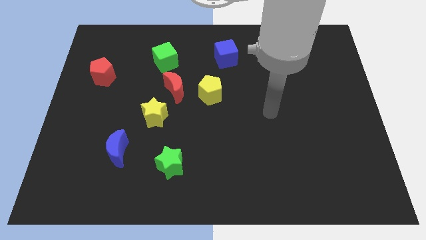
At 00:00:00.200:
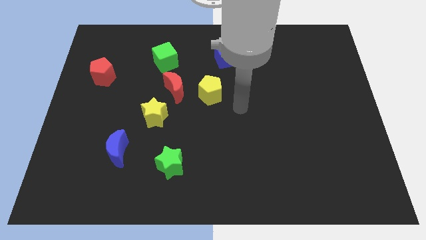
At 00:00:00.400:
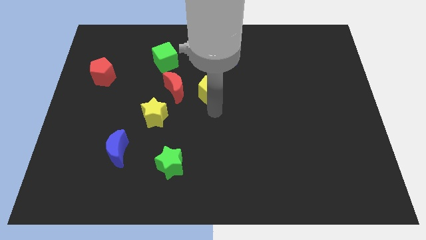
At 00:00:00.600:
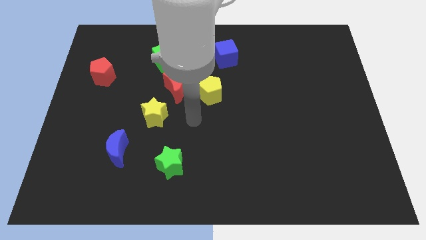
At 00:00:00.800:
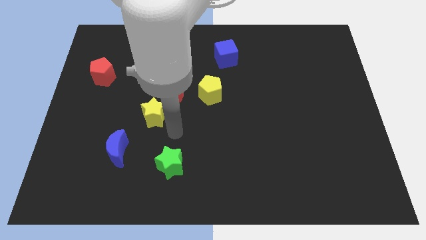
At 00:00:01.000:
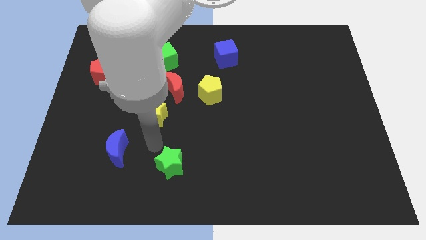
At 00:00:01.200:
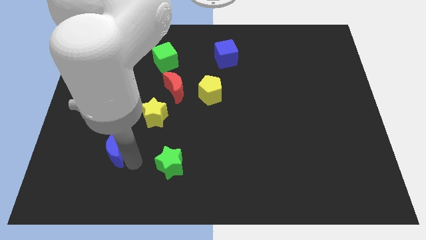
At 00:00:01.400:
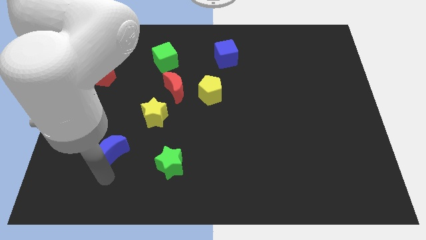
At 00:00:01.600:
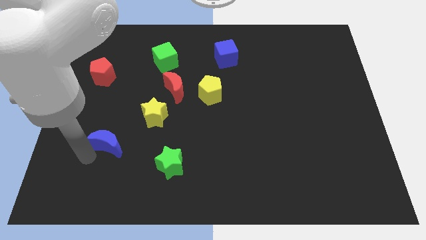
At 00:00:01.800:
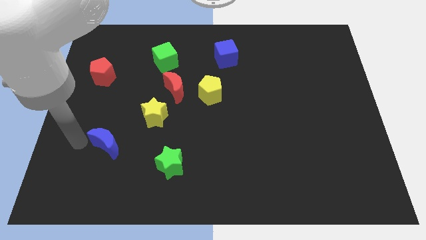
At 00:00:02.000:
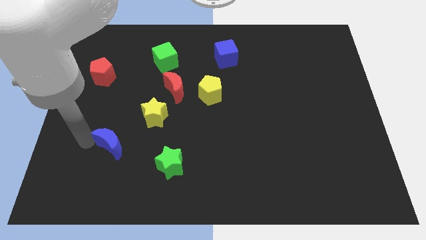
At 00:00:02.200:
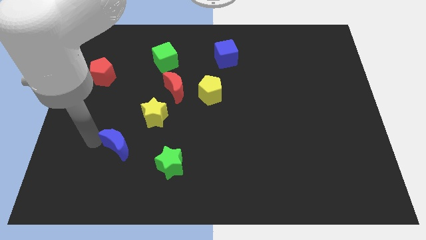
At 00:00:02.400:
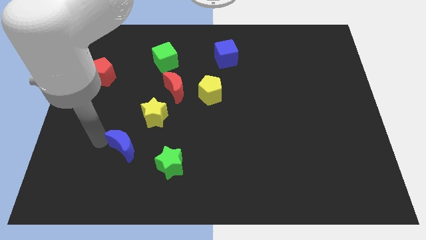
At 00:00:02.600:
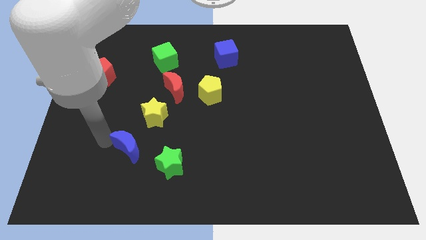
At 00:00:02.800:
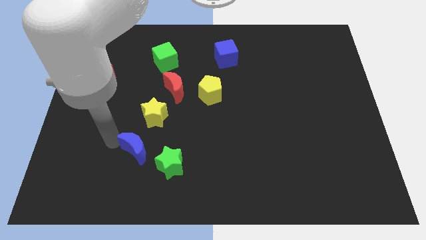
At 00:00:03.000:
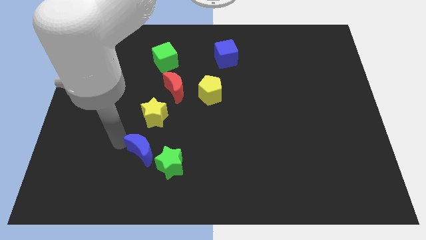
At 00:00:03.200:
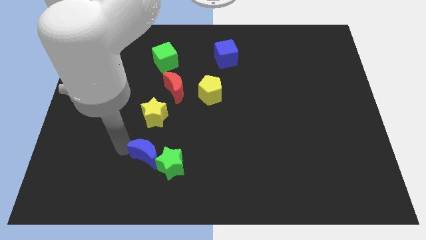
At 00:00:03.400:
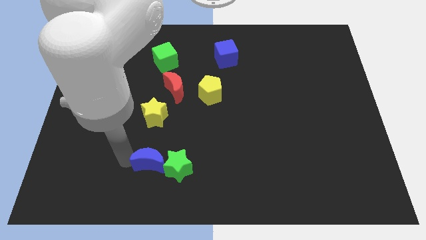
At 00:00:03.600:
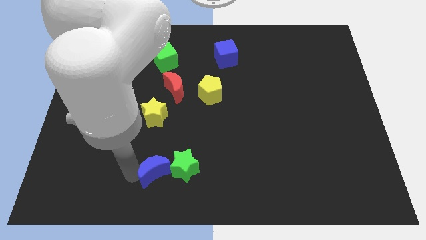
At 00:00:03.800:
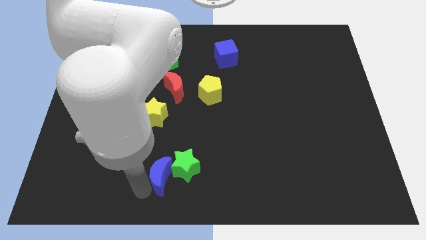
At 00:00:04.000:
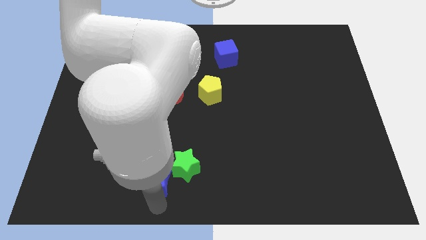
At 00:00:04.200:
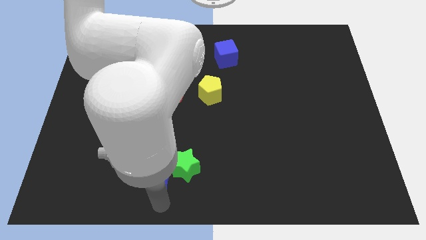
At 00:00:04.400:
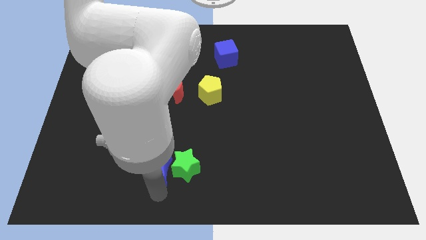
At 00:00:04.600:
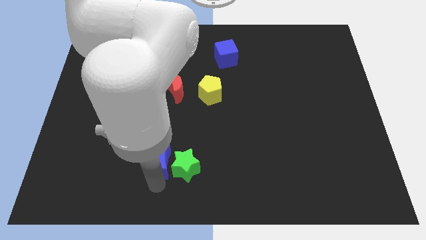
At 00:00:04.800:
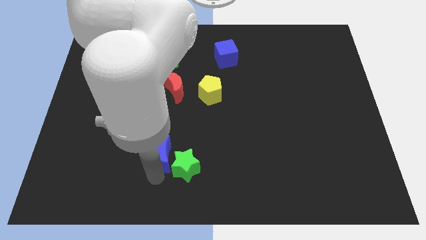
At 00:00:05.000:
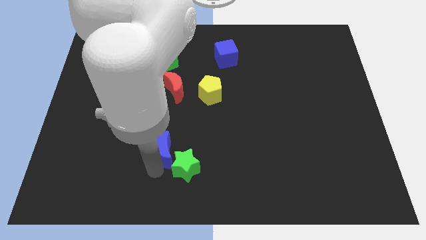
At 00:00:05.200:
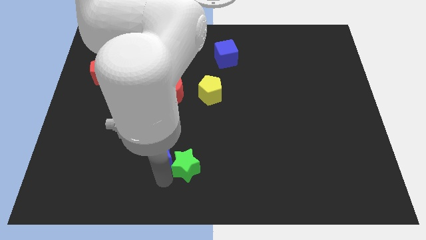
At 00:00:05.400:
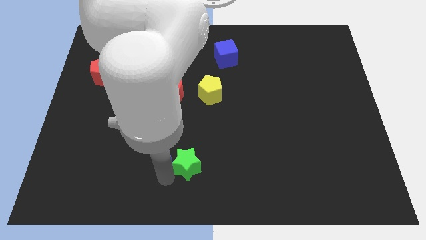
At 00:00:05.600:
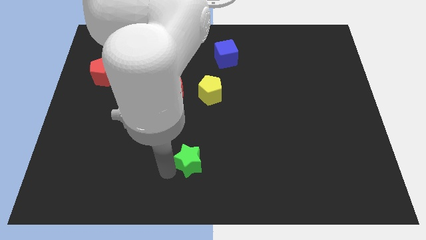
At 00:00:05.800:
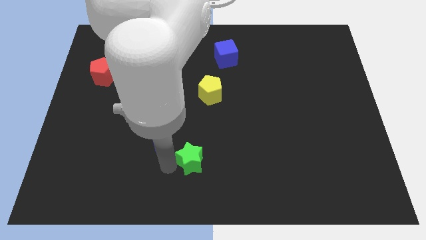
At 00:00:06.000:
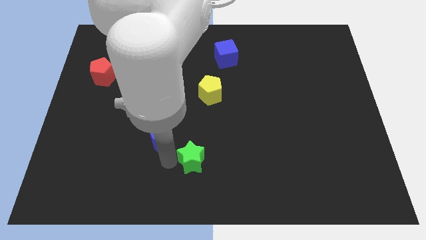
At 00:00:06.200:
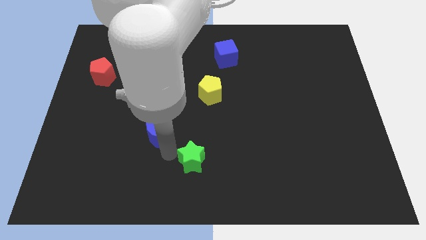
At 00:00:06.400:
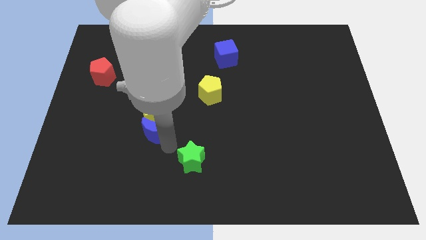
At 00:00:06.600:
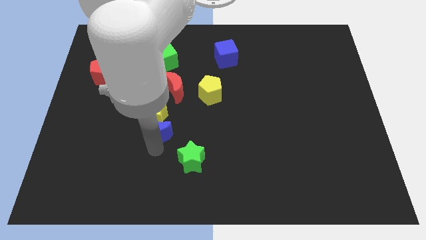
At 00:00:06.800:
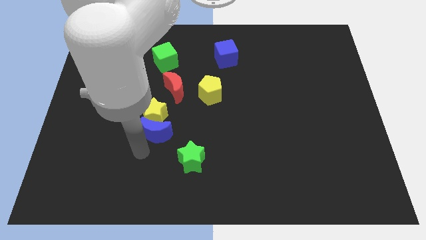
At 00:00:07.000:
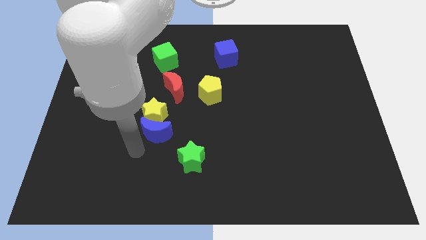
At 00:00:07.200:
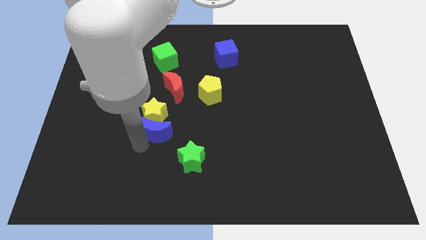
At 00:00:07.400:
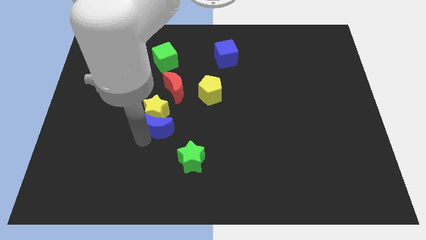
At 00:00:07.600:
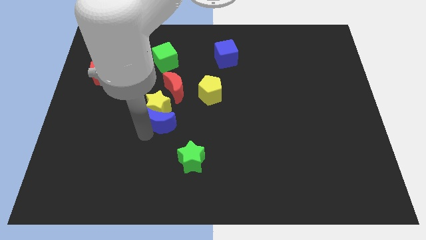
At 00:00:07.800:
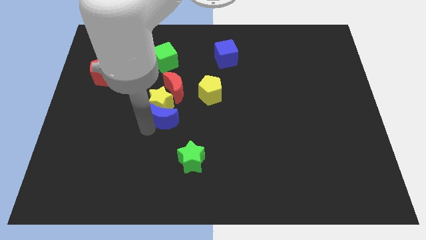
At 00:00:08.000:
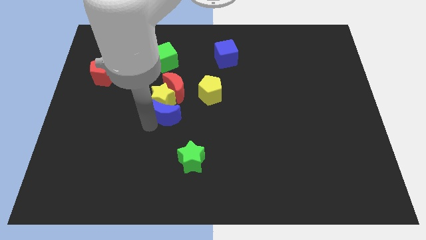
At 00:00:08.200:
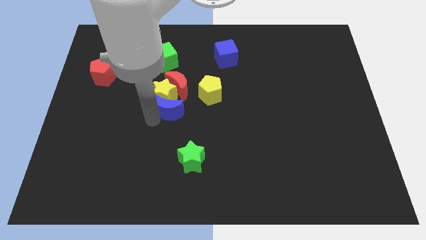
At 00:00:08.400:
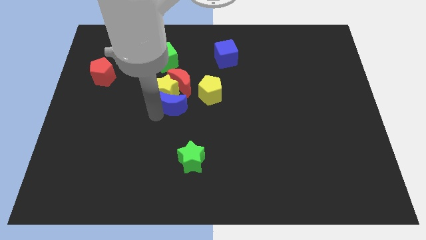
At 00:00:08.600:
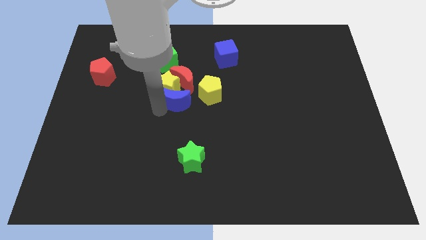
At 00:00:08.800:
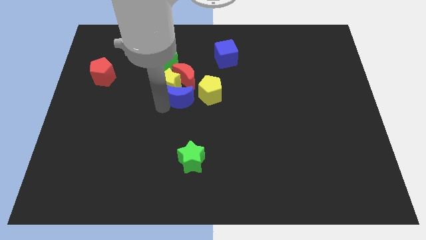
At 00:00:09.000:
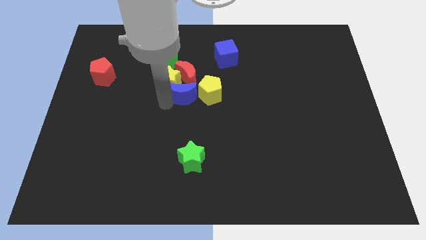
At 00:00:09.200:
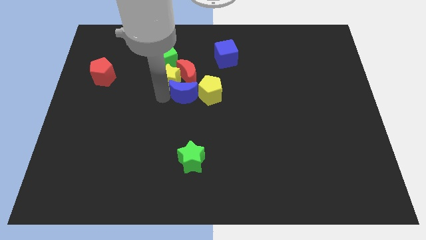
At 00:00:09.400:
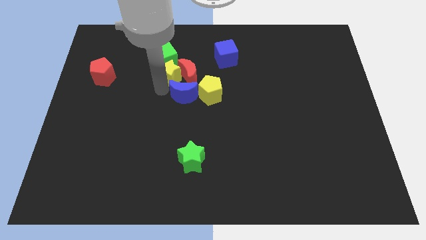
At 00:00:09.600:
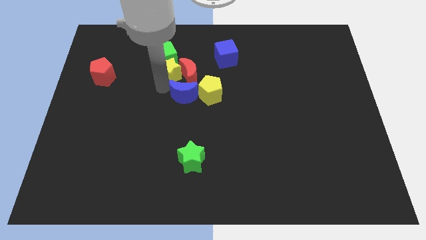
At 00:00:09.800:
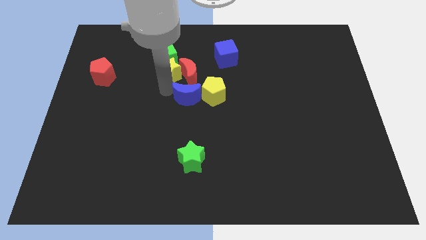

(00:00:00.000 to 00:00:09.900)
put the blue moon next to the yellow pentagon

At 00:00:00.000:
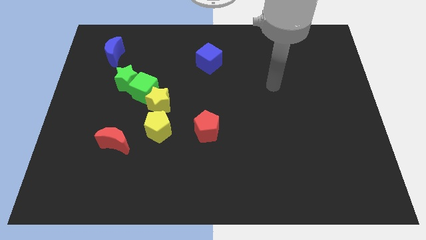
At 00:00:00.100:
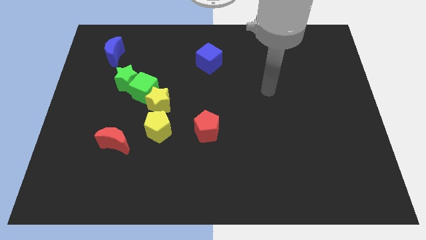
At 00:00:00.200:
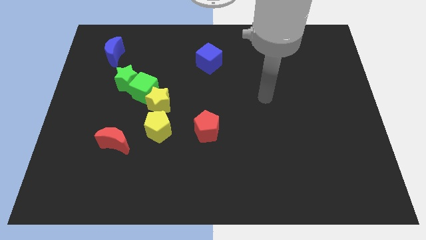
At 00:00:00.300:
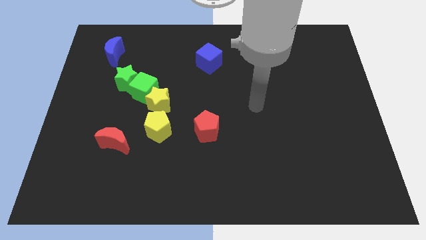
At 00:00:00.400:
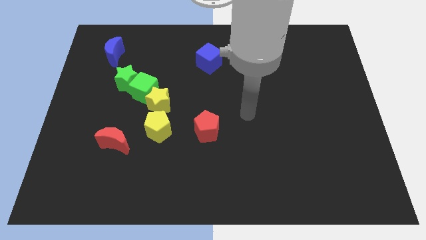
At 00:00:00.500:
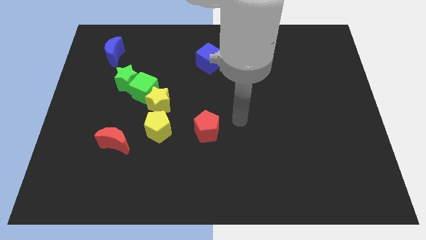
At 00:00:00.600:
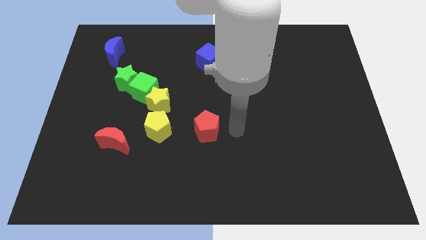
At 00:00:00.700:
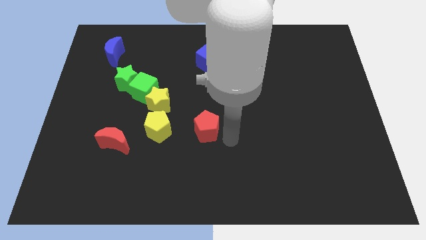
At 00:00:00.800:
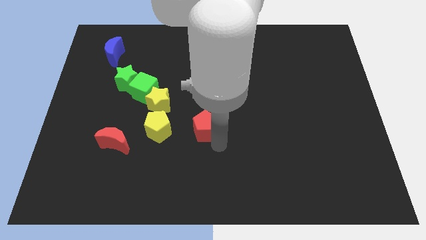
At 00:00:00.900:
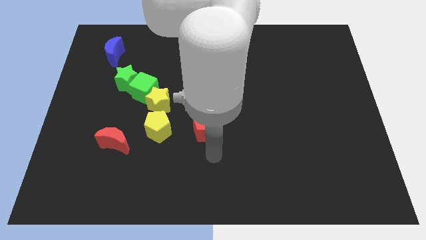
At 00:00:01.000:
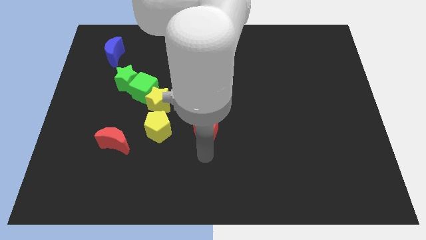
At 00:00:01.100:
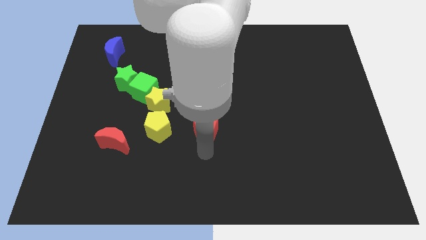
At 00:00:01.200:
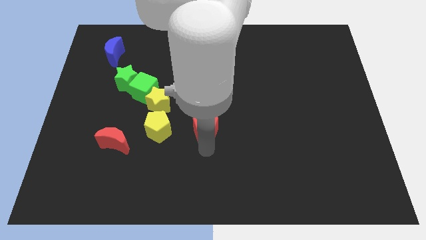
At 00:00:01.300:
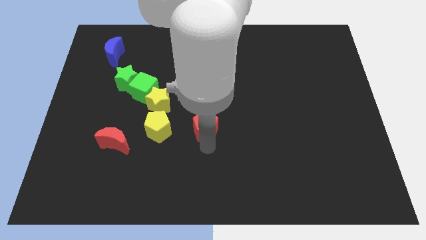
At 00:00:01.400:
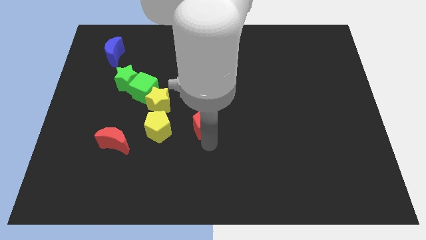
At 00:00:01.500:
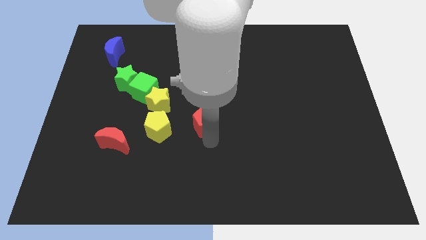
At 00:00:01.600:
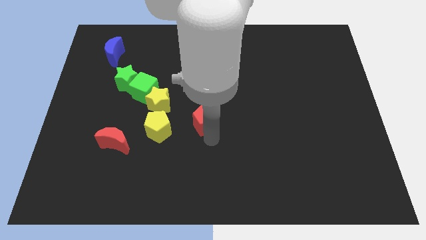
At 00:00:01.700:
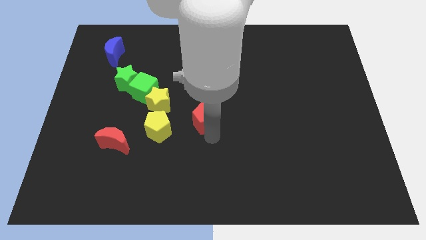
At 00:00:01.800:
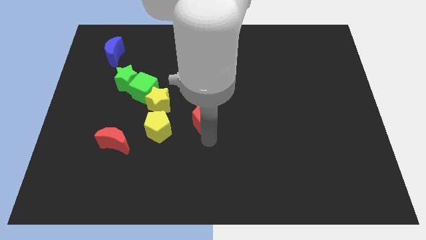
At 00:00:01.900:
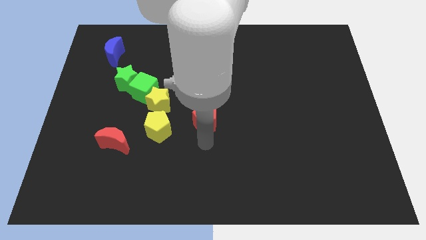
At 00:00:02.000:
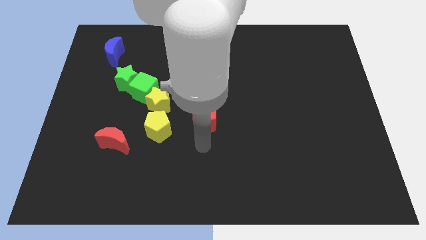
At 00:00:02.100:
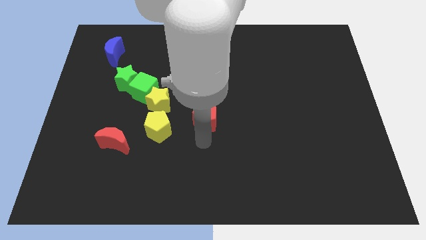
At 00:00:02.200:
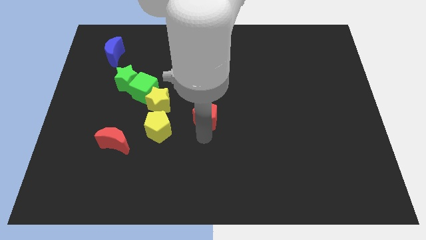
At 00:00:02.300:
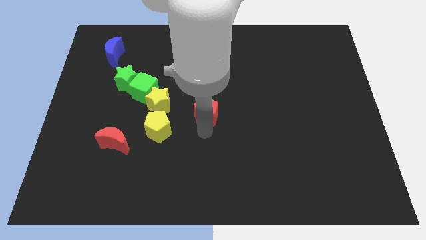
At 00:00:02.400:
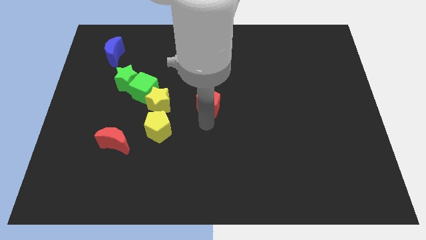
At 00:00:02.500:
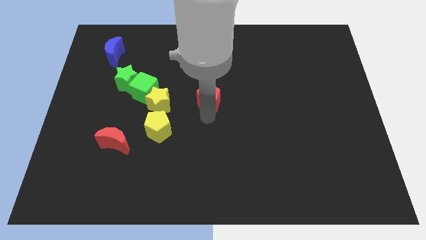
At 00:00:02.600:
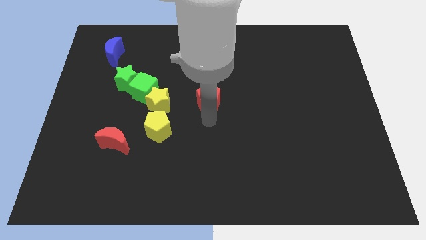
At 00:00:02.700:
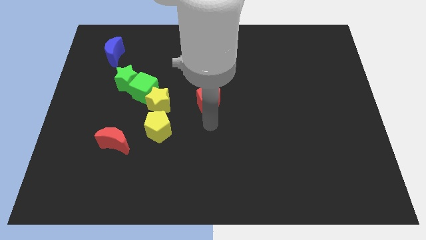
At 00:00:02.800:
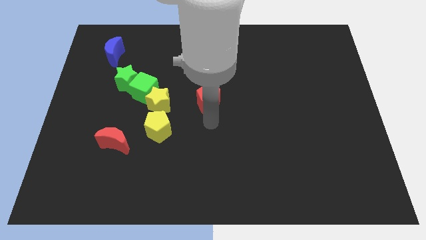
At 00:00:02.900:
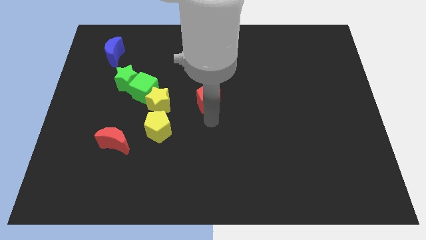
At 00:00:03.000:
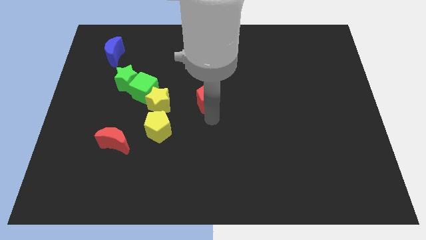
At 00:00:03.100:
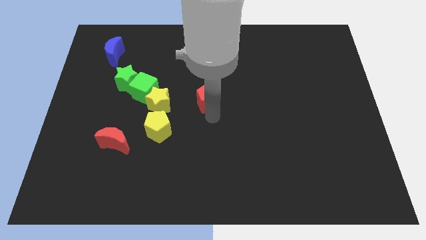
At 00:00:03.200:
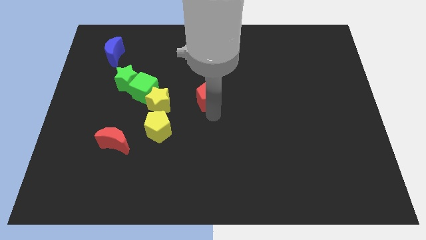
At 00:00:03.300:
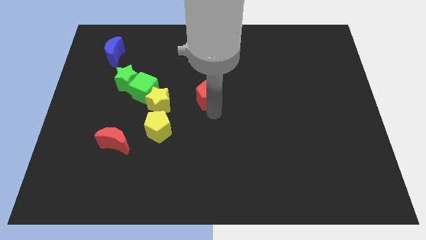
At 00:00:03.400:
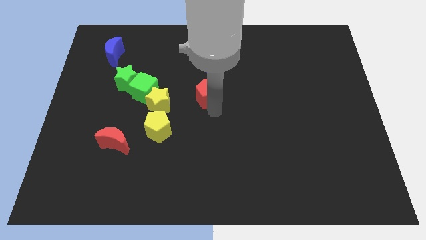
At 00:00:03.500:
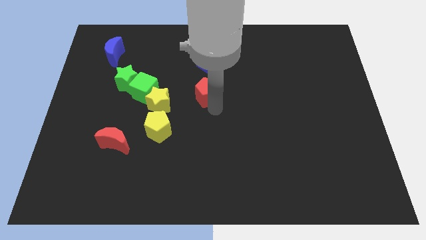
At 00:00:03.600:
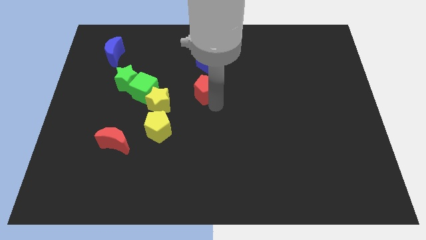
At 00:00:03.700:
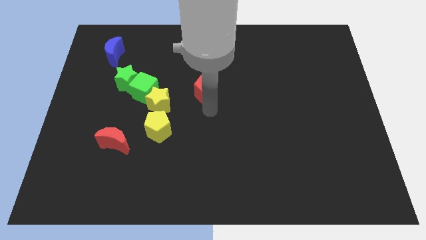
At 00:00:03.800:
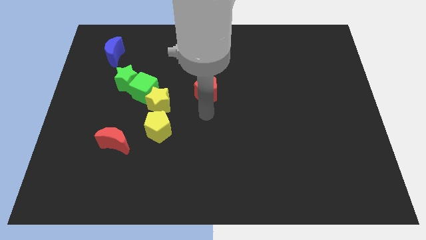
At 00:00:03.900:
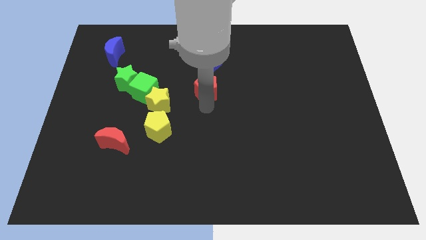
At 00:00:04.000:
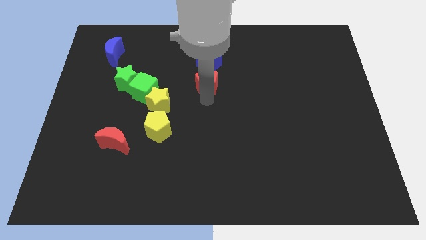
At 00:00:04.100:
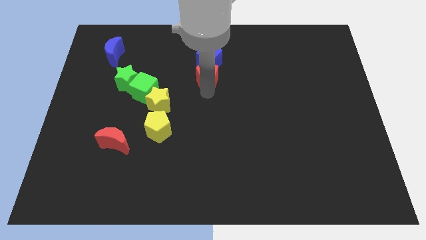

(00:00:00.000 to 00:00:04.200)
put the red pentagon towards the blue cube
